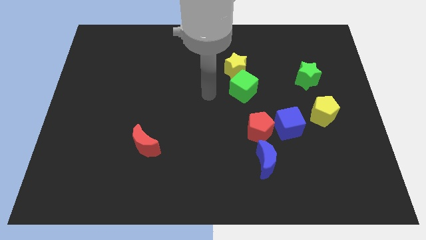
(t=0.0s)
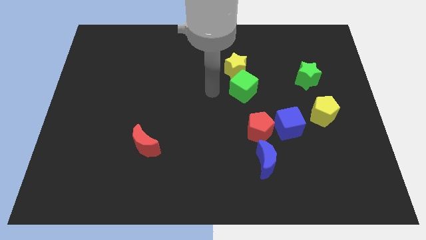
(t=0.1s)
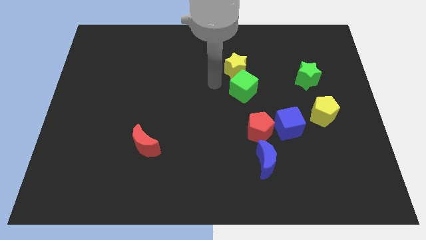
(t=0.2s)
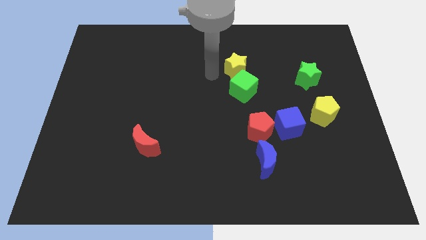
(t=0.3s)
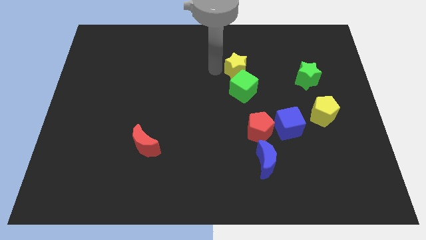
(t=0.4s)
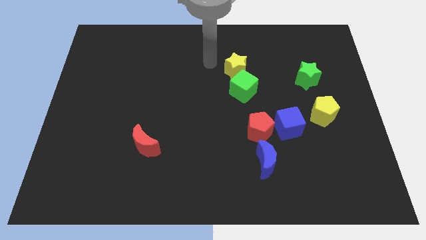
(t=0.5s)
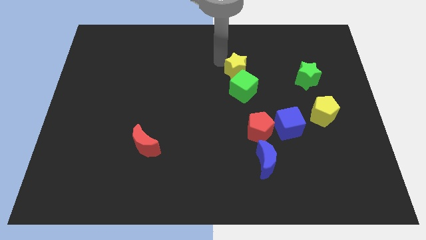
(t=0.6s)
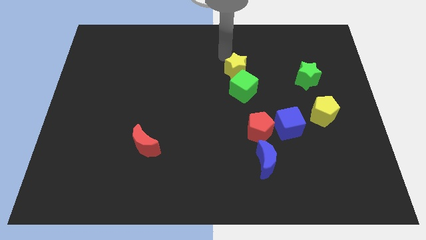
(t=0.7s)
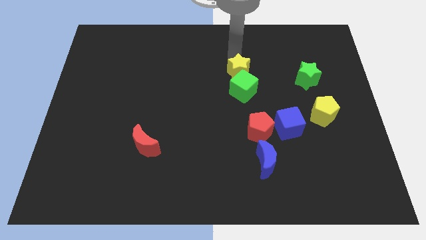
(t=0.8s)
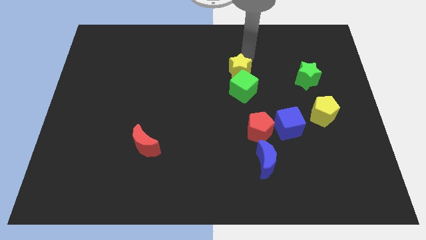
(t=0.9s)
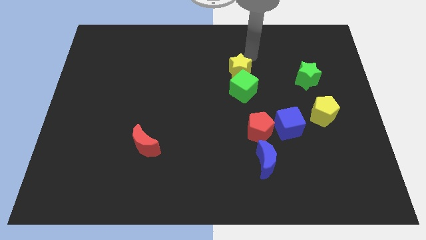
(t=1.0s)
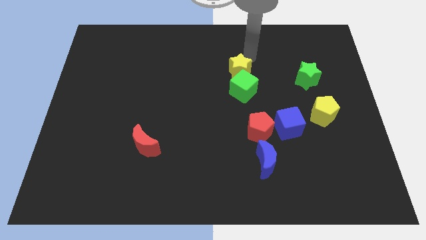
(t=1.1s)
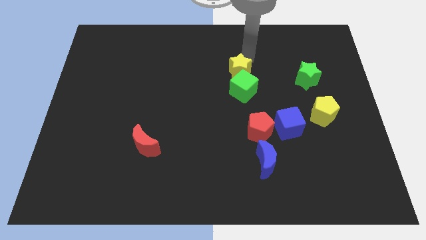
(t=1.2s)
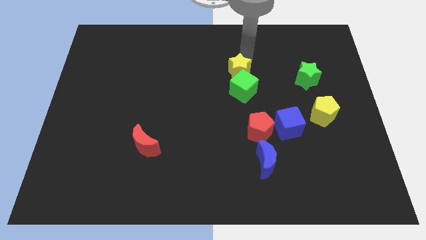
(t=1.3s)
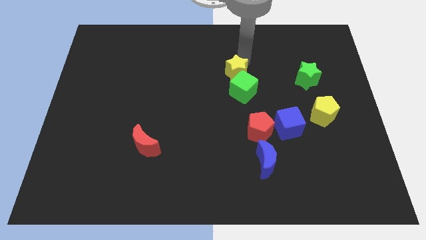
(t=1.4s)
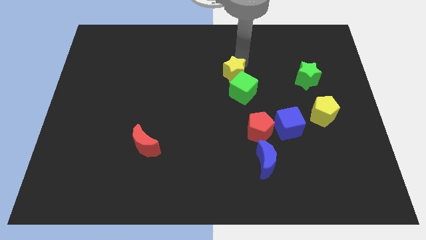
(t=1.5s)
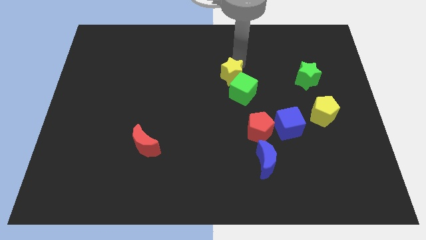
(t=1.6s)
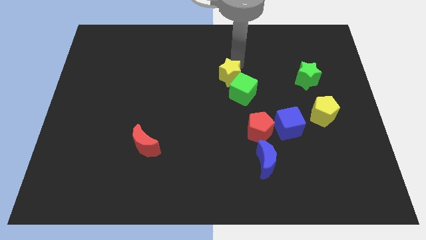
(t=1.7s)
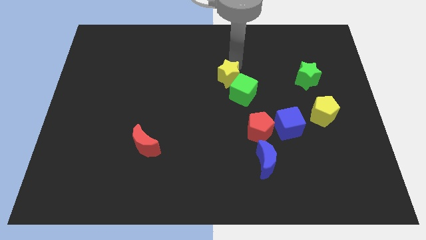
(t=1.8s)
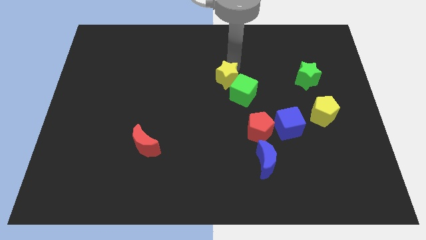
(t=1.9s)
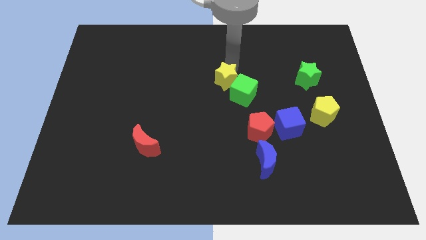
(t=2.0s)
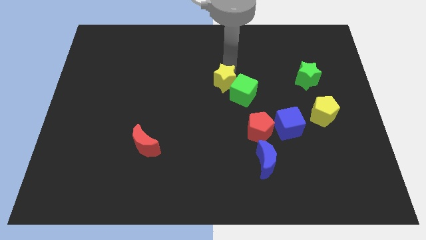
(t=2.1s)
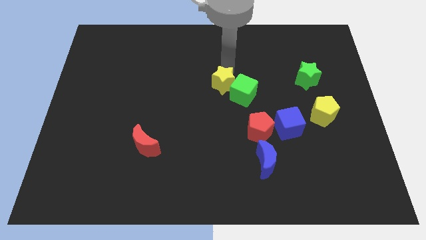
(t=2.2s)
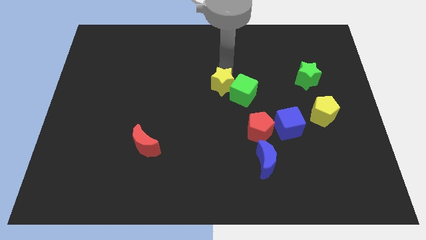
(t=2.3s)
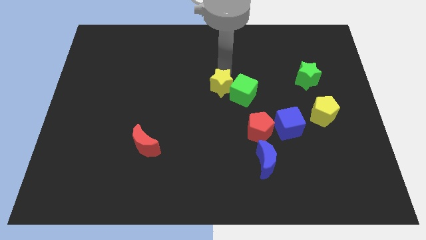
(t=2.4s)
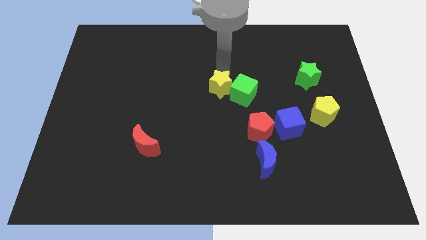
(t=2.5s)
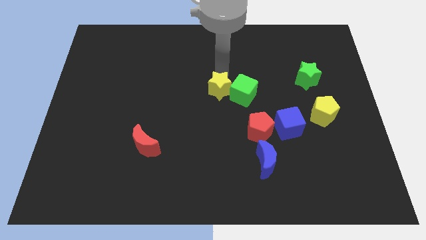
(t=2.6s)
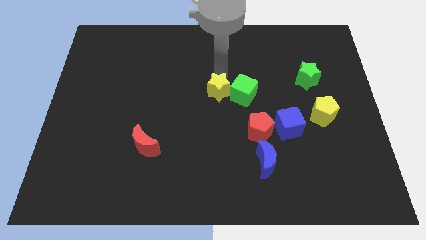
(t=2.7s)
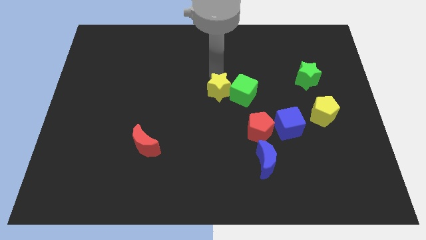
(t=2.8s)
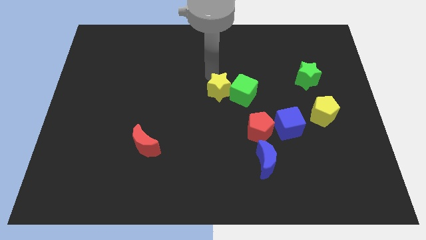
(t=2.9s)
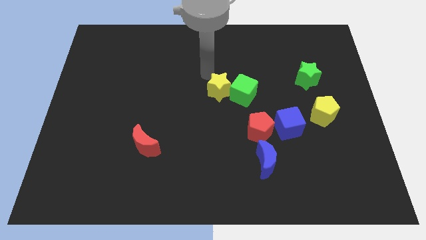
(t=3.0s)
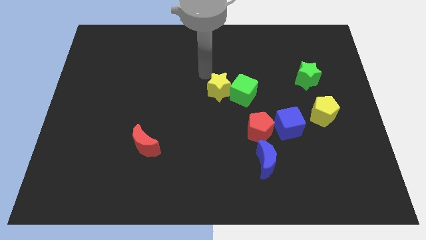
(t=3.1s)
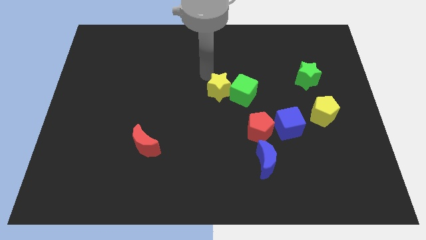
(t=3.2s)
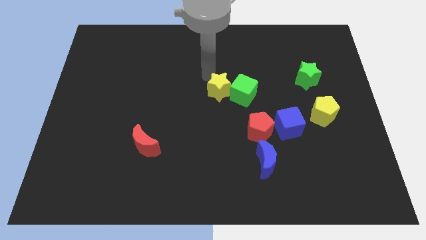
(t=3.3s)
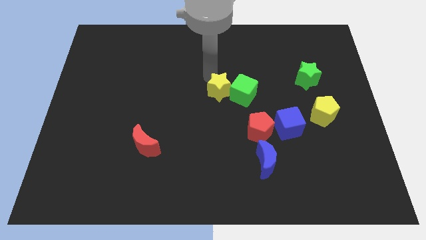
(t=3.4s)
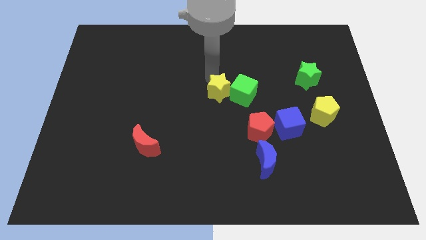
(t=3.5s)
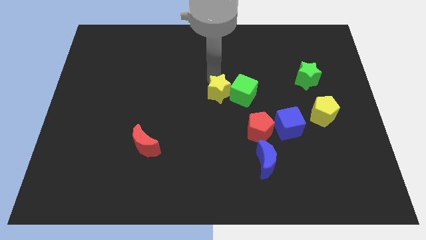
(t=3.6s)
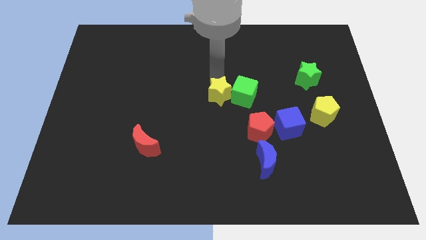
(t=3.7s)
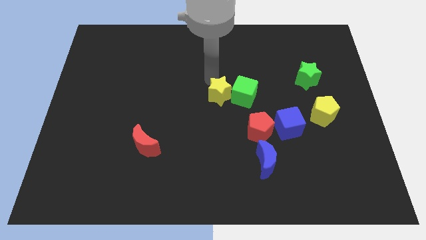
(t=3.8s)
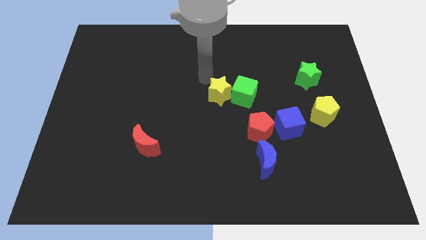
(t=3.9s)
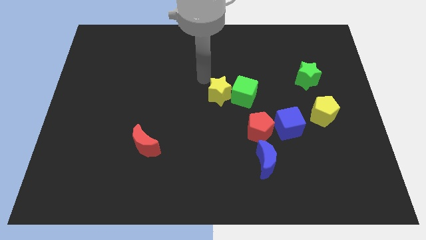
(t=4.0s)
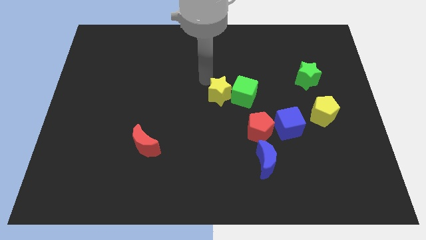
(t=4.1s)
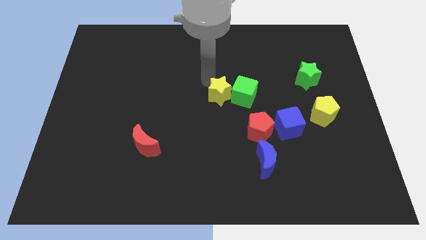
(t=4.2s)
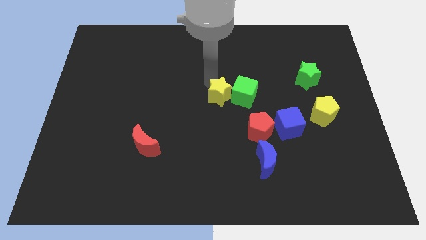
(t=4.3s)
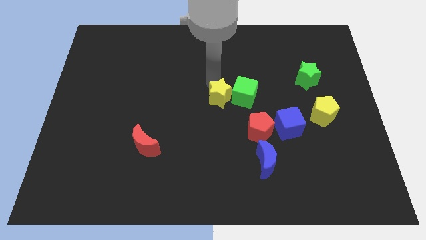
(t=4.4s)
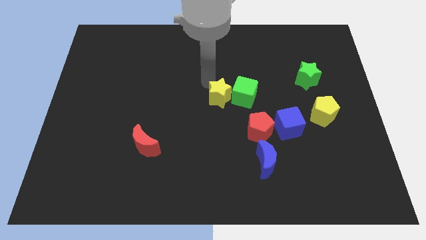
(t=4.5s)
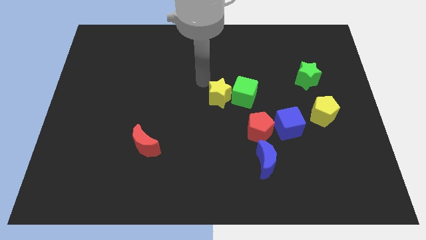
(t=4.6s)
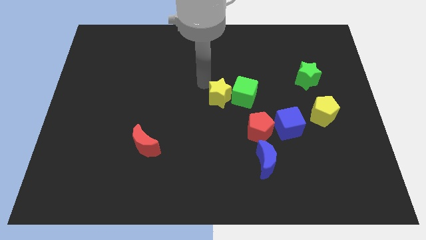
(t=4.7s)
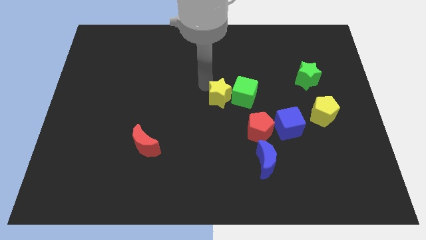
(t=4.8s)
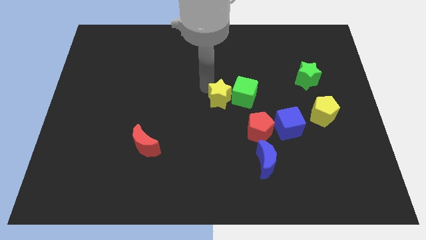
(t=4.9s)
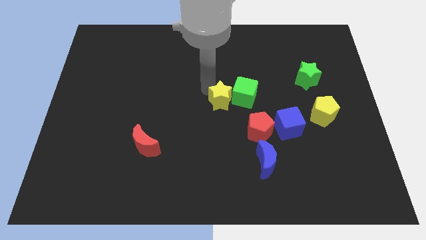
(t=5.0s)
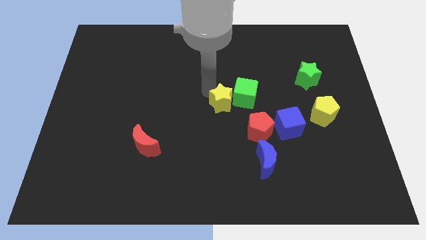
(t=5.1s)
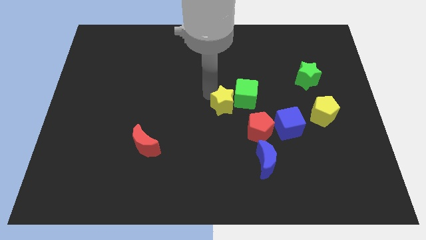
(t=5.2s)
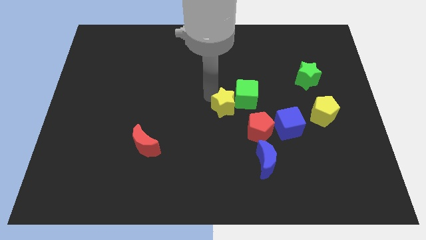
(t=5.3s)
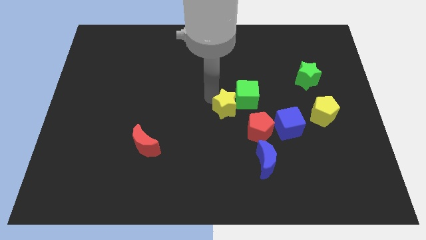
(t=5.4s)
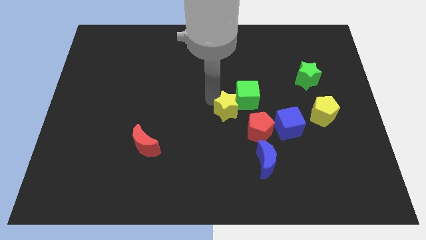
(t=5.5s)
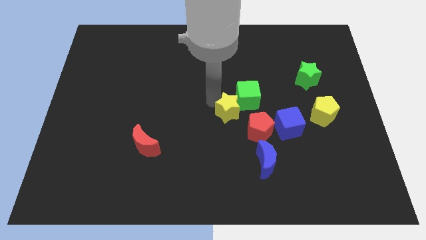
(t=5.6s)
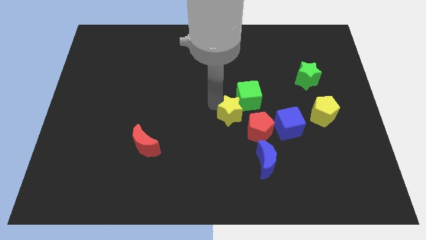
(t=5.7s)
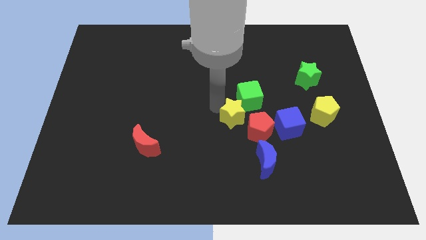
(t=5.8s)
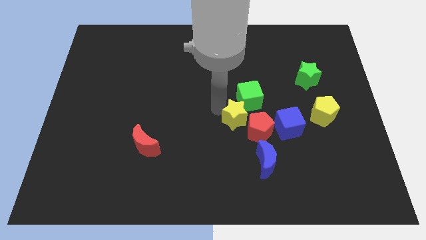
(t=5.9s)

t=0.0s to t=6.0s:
push the yellow star next to the red pentagon

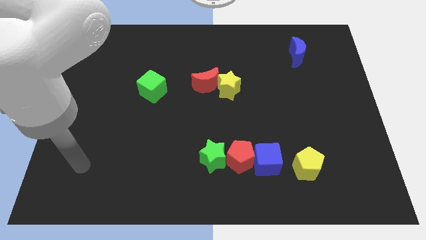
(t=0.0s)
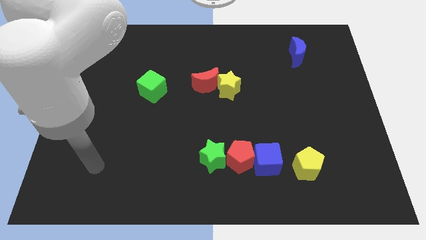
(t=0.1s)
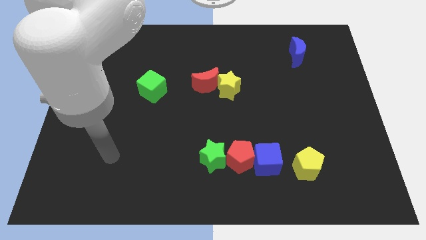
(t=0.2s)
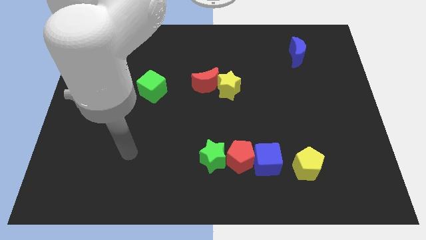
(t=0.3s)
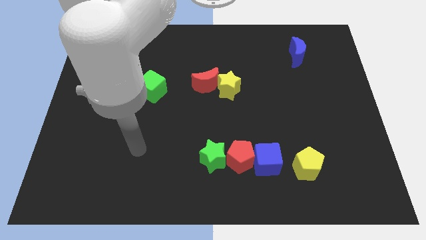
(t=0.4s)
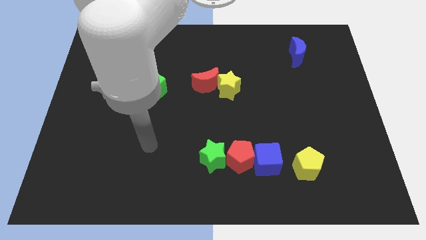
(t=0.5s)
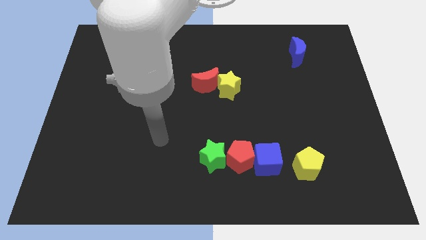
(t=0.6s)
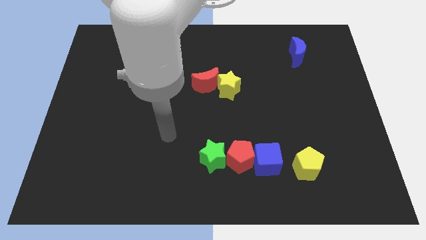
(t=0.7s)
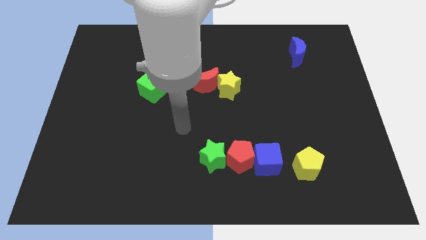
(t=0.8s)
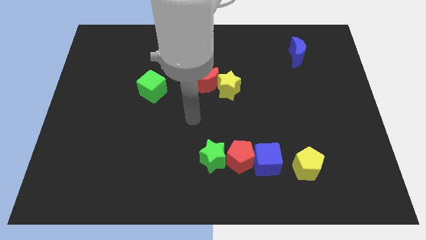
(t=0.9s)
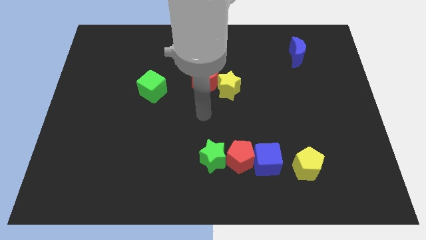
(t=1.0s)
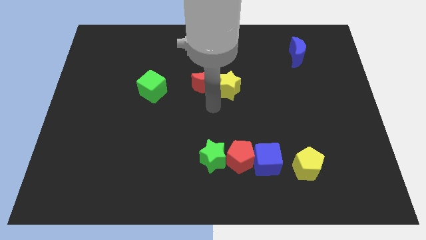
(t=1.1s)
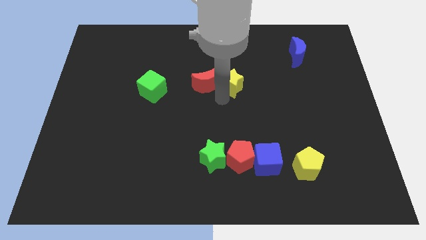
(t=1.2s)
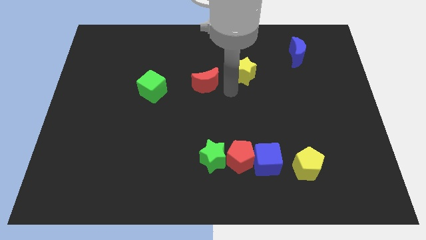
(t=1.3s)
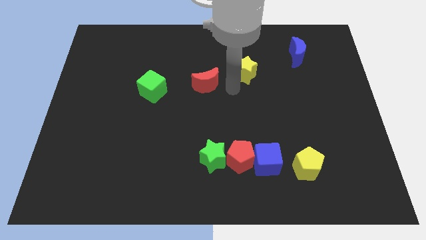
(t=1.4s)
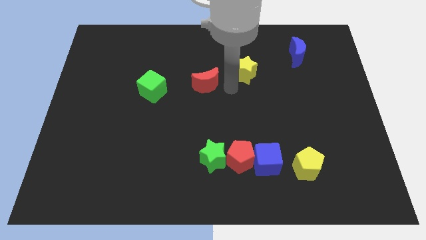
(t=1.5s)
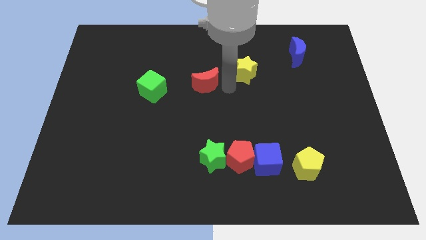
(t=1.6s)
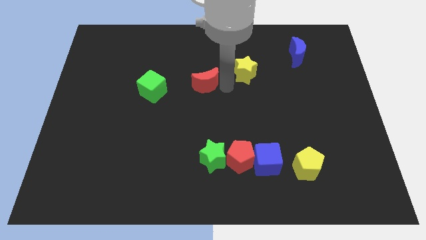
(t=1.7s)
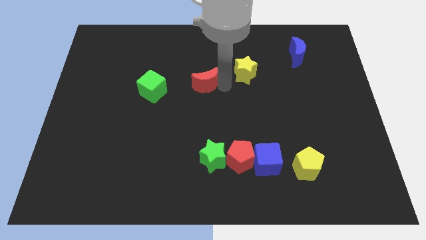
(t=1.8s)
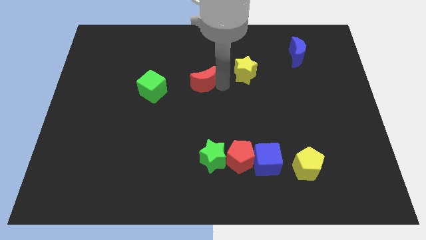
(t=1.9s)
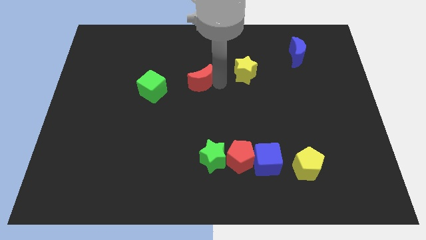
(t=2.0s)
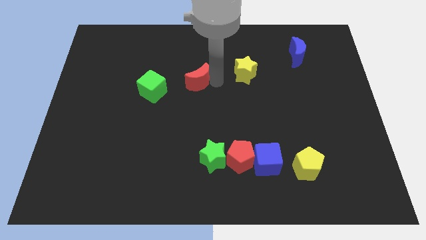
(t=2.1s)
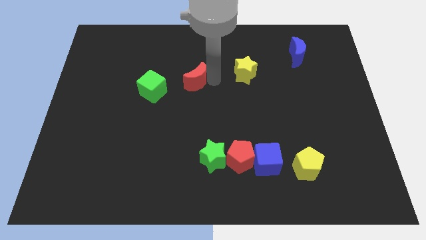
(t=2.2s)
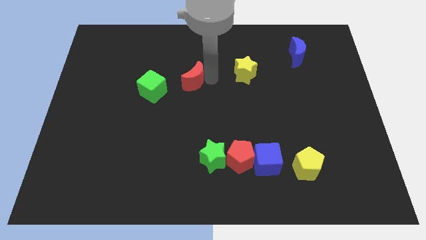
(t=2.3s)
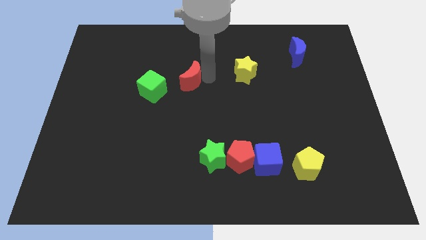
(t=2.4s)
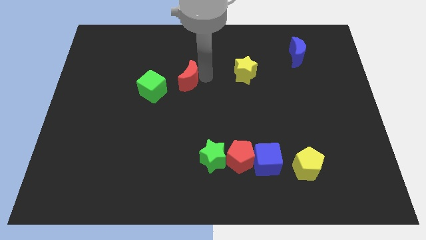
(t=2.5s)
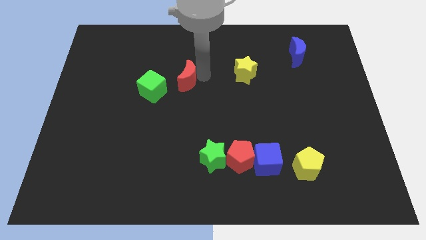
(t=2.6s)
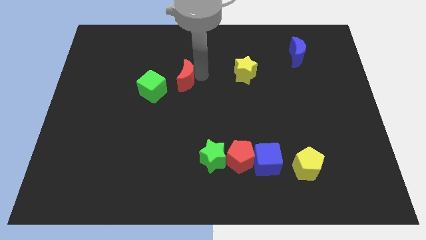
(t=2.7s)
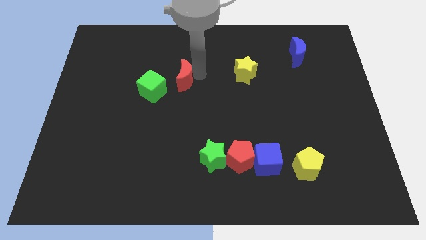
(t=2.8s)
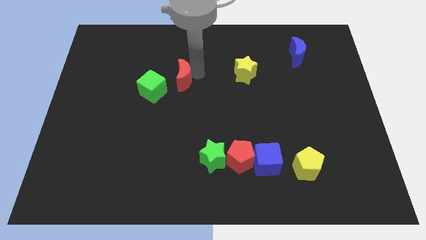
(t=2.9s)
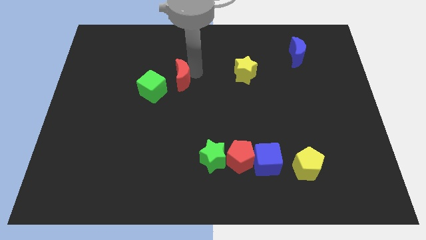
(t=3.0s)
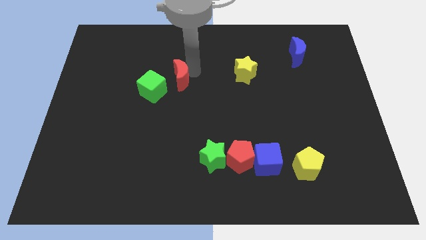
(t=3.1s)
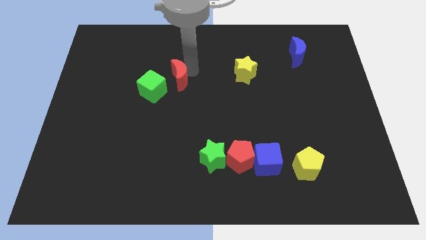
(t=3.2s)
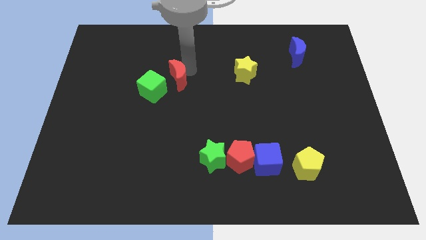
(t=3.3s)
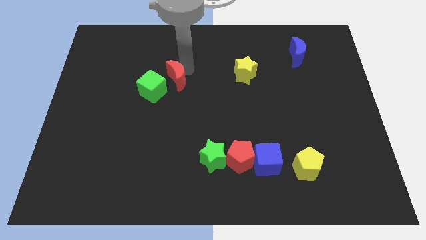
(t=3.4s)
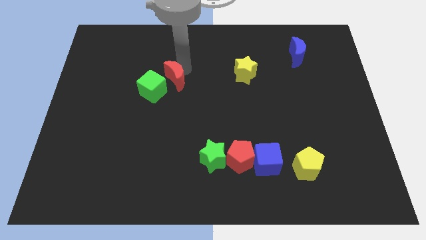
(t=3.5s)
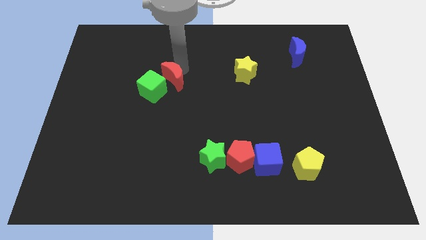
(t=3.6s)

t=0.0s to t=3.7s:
put the red moon next to the green cube
